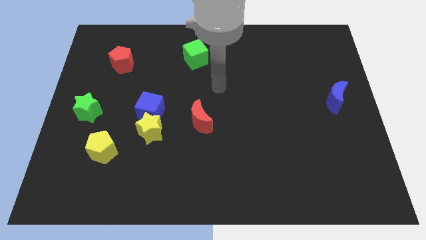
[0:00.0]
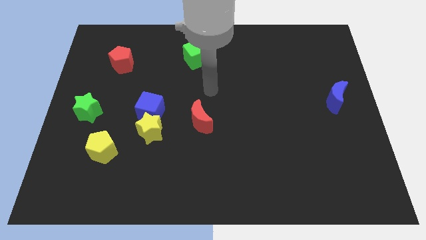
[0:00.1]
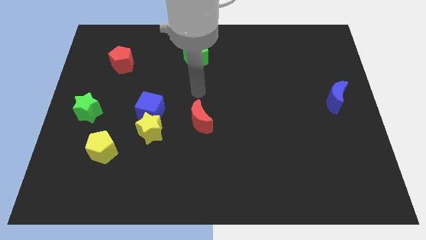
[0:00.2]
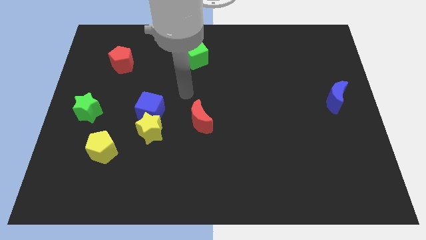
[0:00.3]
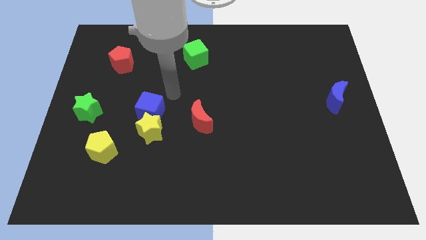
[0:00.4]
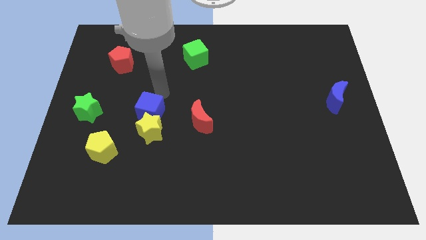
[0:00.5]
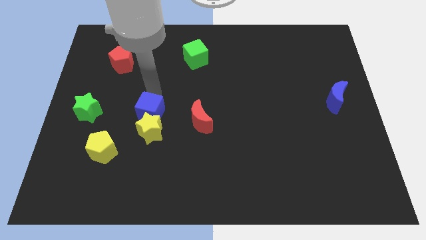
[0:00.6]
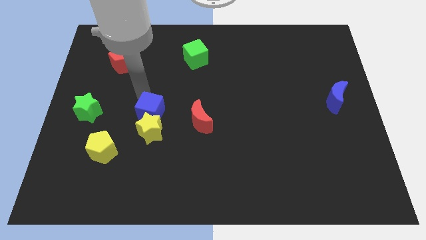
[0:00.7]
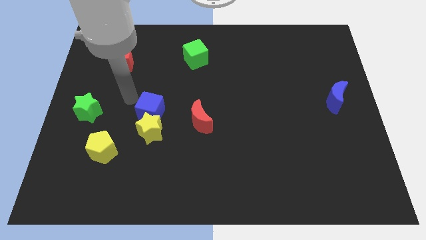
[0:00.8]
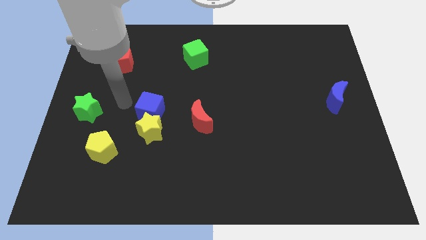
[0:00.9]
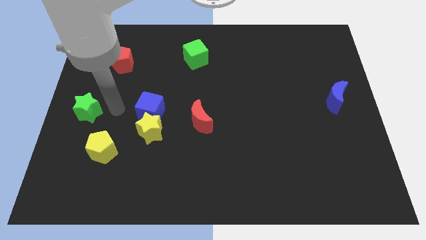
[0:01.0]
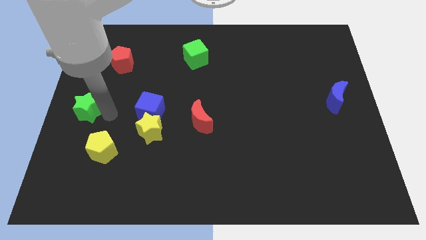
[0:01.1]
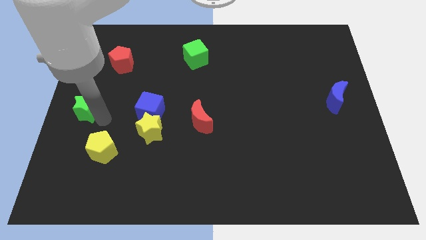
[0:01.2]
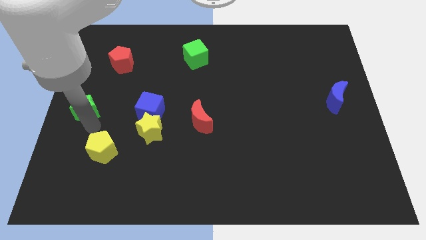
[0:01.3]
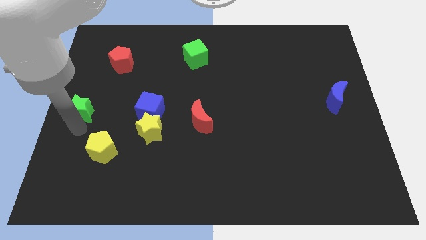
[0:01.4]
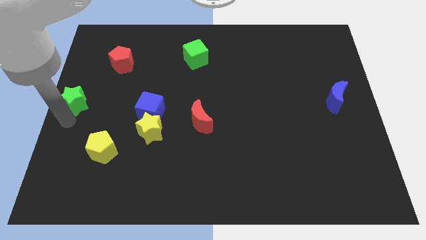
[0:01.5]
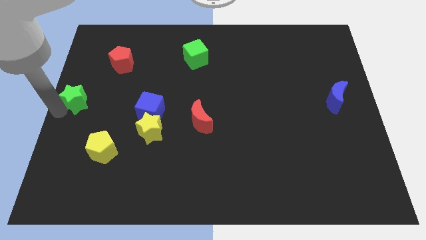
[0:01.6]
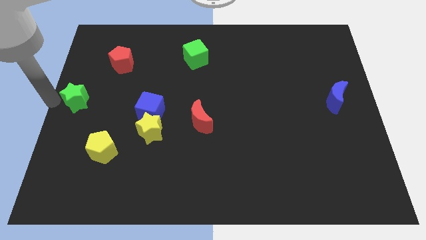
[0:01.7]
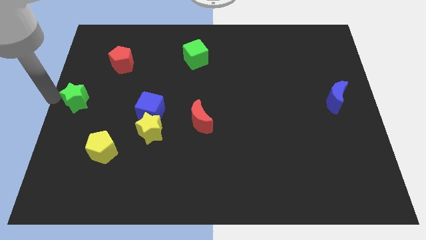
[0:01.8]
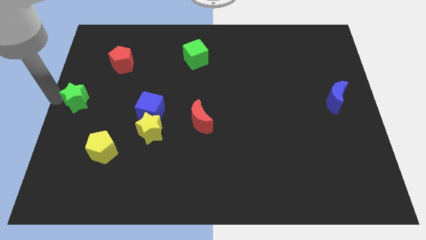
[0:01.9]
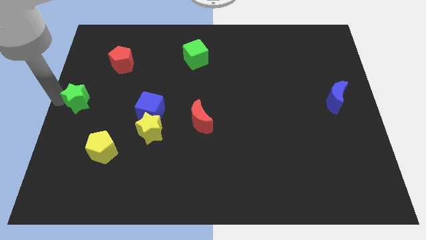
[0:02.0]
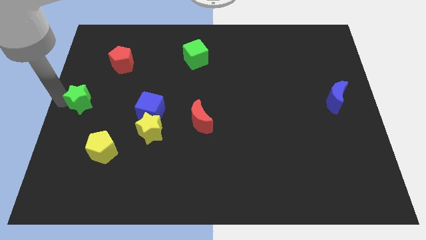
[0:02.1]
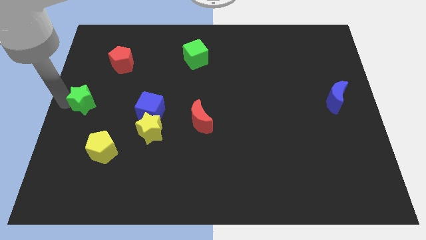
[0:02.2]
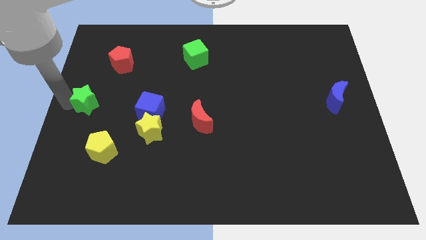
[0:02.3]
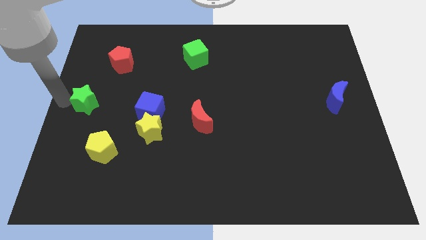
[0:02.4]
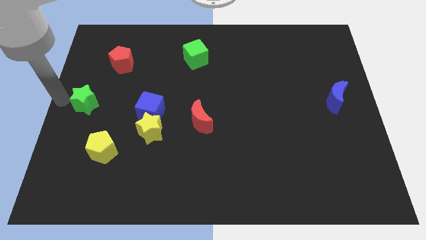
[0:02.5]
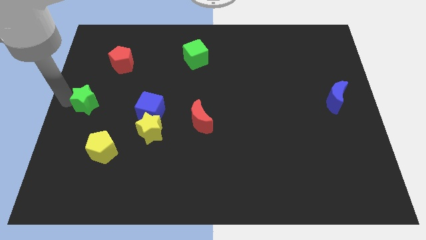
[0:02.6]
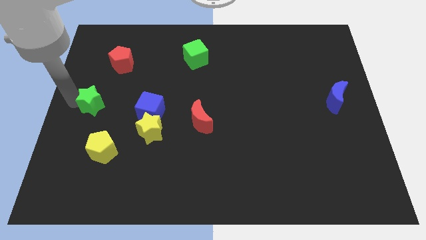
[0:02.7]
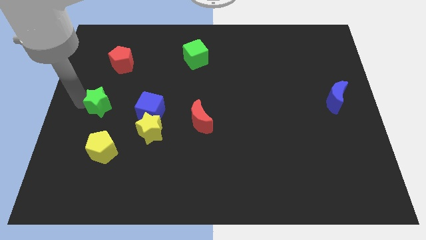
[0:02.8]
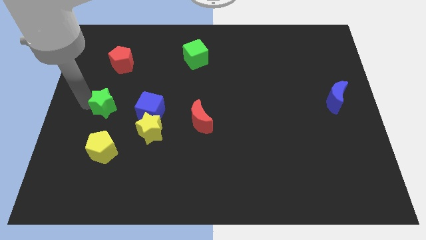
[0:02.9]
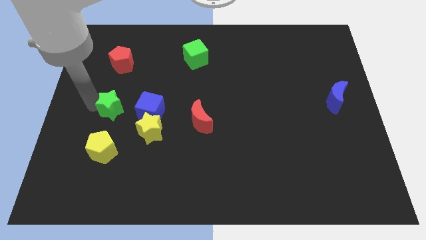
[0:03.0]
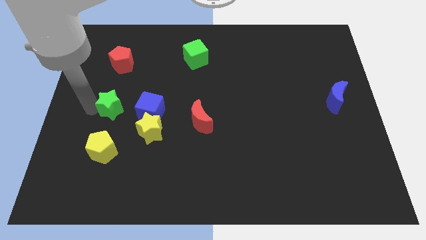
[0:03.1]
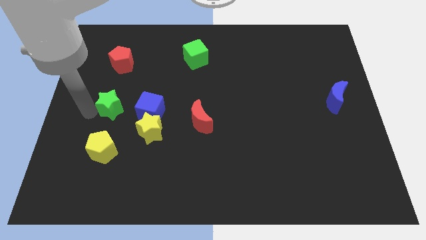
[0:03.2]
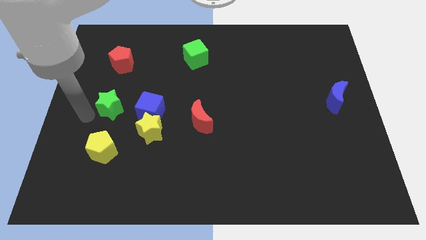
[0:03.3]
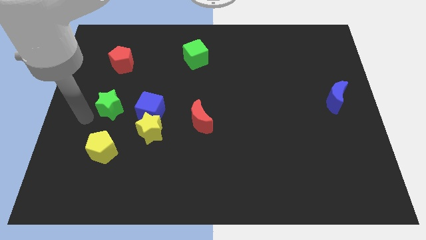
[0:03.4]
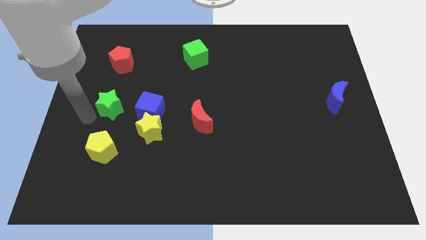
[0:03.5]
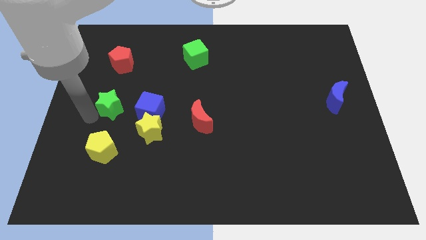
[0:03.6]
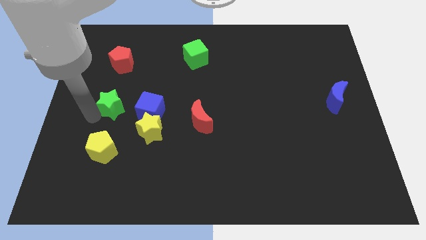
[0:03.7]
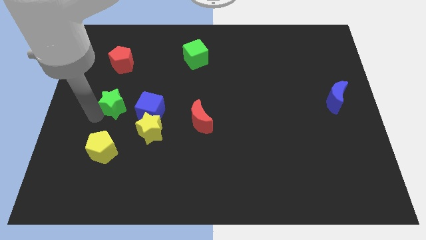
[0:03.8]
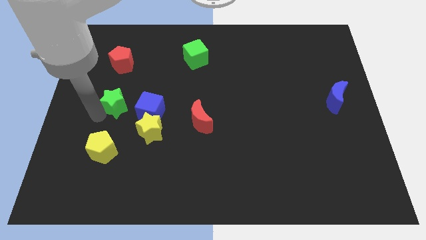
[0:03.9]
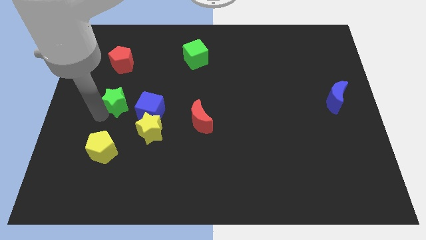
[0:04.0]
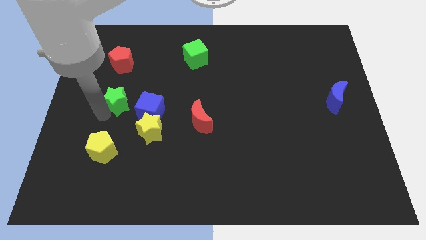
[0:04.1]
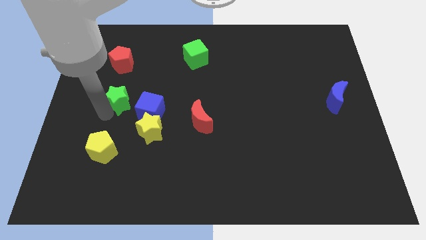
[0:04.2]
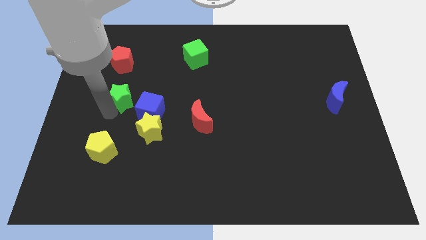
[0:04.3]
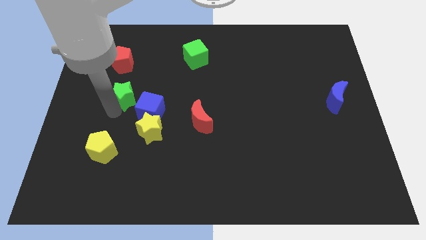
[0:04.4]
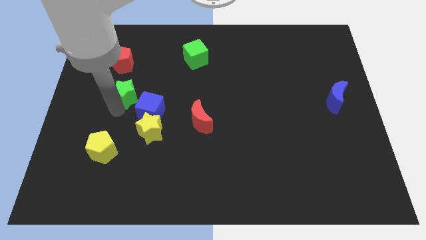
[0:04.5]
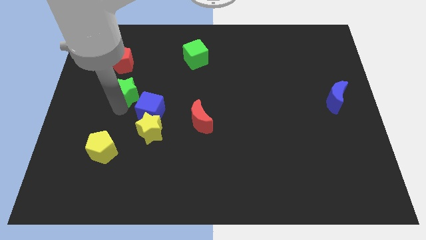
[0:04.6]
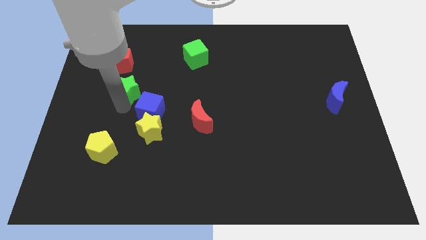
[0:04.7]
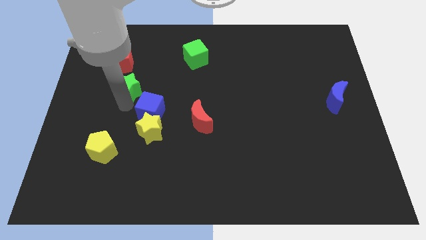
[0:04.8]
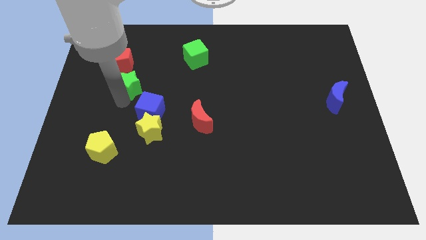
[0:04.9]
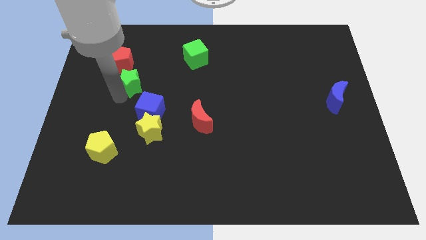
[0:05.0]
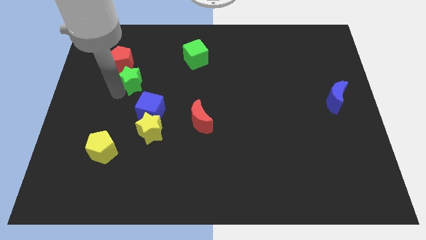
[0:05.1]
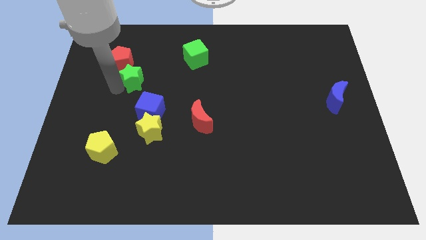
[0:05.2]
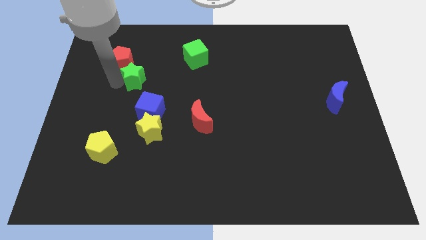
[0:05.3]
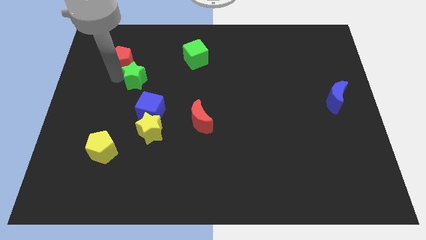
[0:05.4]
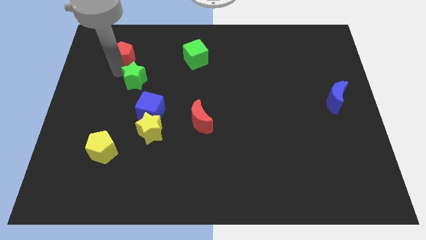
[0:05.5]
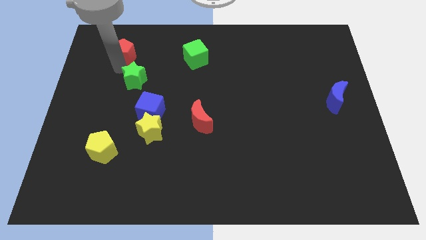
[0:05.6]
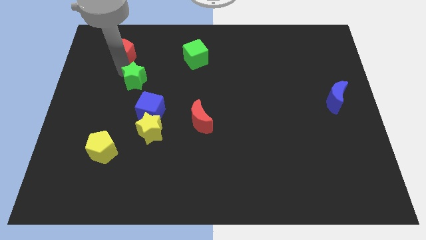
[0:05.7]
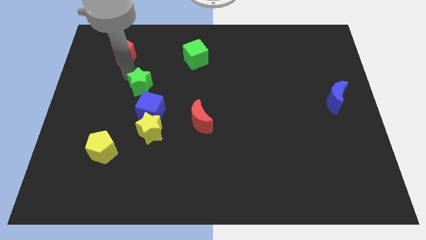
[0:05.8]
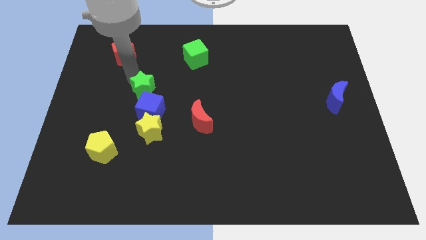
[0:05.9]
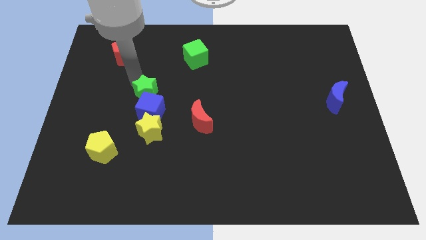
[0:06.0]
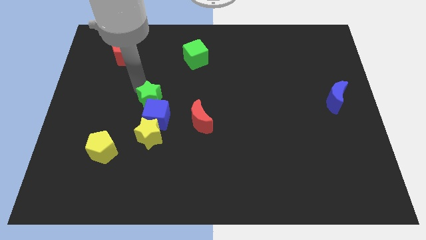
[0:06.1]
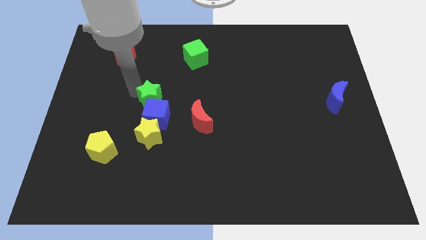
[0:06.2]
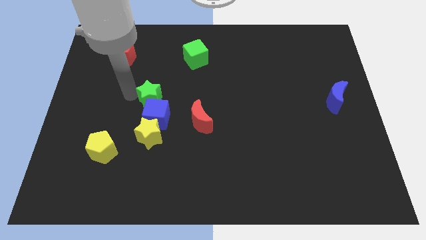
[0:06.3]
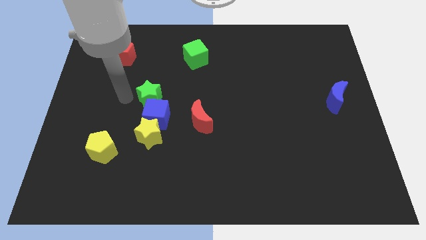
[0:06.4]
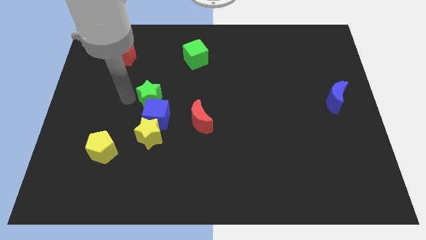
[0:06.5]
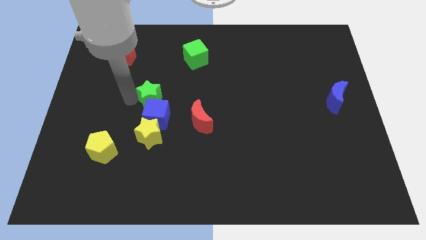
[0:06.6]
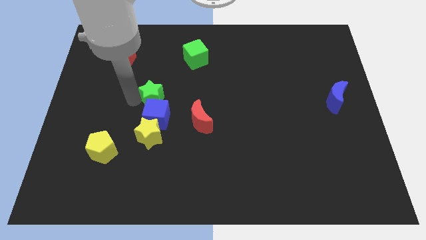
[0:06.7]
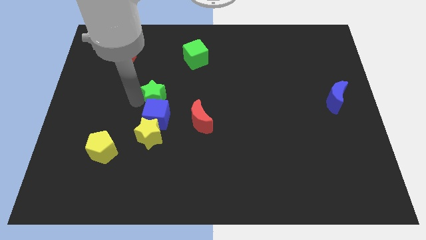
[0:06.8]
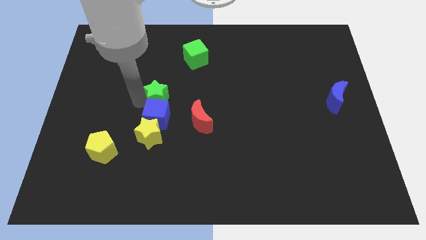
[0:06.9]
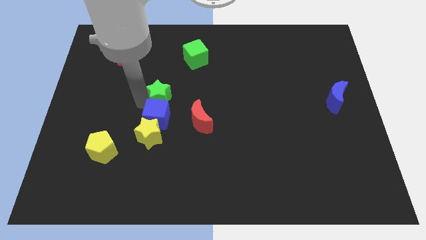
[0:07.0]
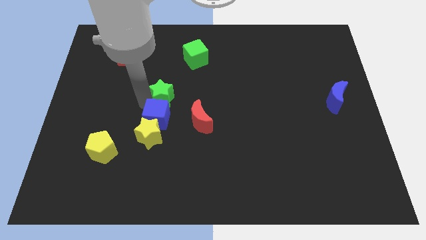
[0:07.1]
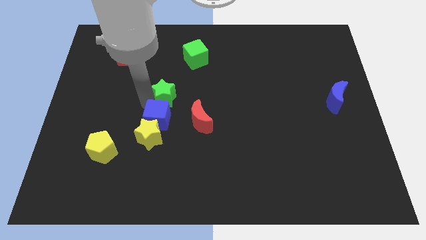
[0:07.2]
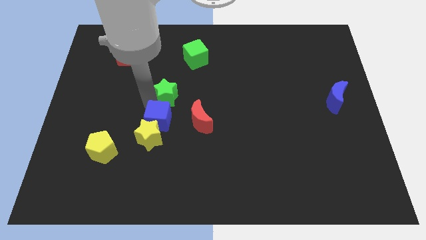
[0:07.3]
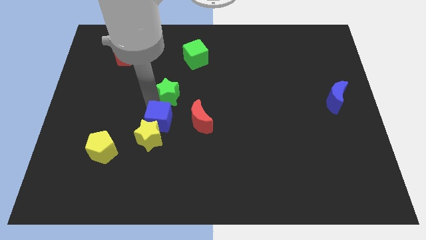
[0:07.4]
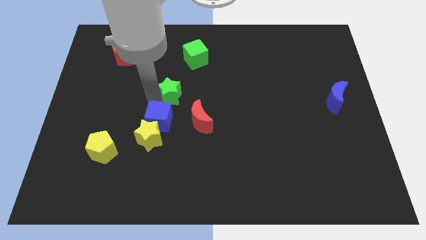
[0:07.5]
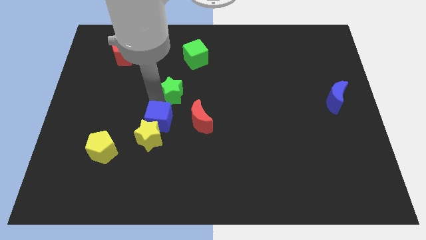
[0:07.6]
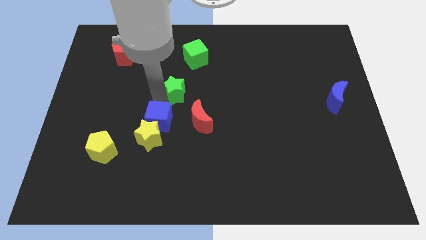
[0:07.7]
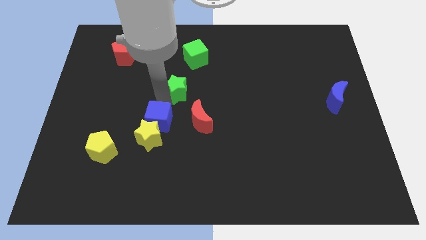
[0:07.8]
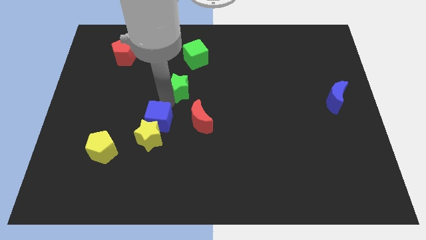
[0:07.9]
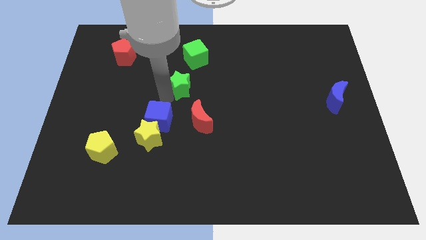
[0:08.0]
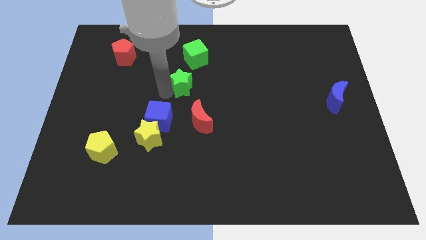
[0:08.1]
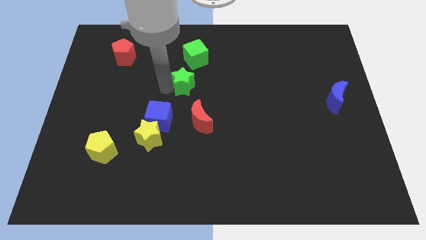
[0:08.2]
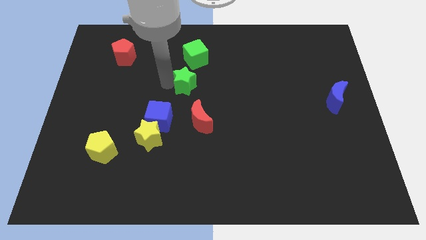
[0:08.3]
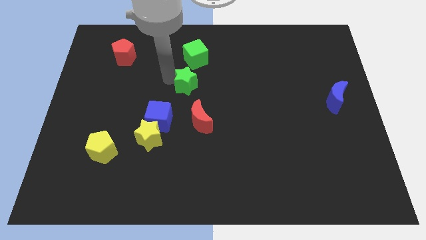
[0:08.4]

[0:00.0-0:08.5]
slide the green star right
